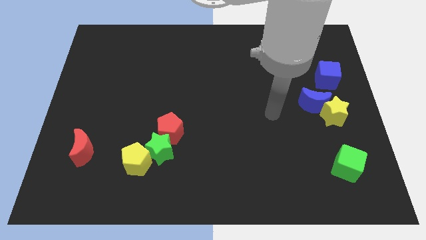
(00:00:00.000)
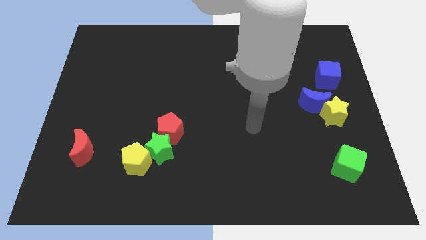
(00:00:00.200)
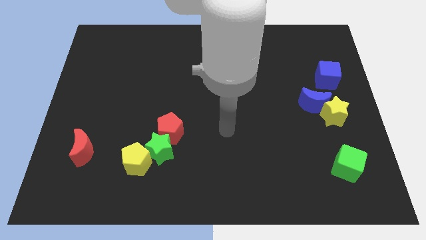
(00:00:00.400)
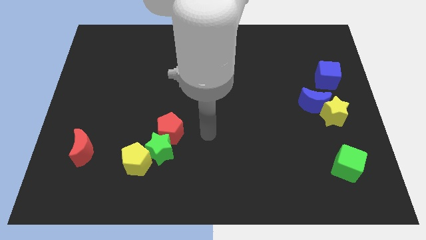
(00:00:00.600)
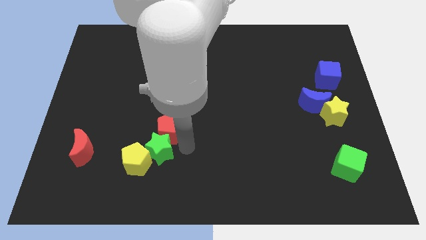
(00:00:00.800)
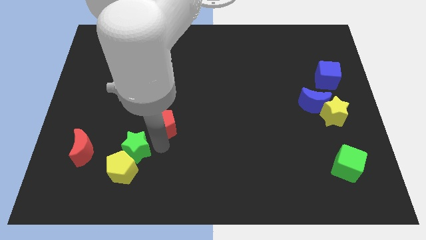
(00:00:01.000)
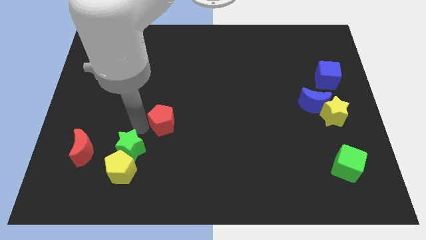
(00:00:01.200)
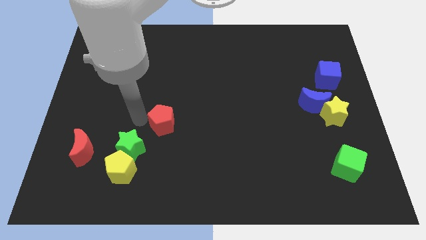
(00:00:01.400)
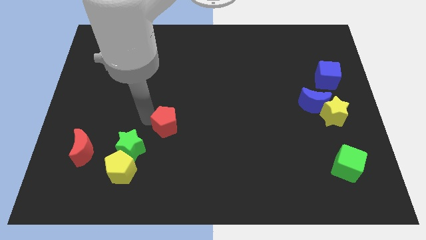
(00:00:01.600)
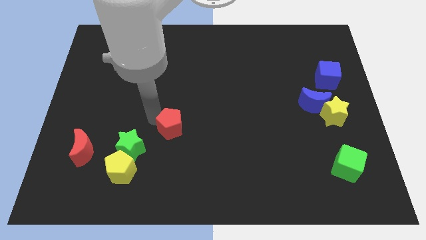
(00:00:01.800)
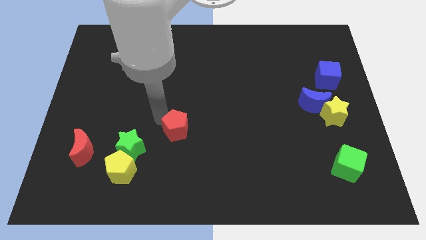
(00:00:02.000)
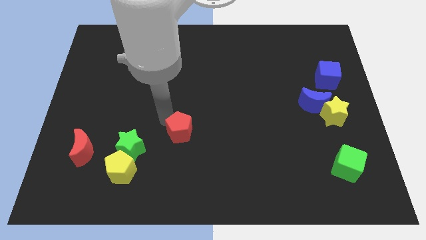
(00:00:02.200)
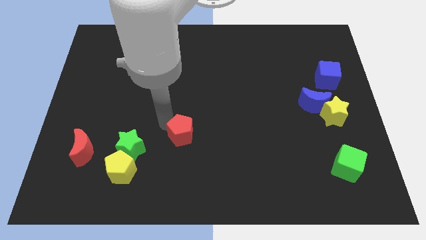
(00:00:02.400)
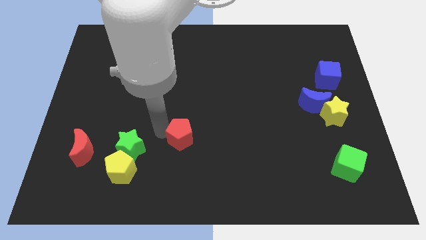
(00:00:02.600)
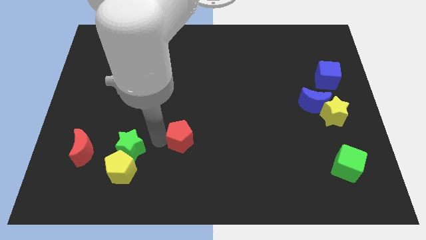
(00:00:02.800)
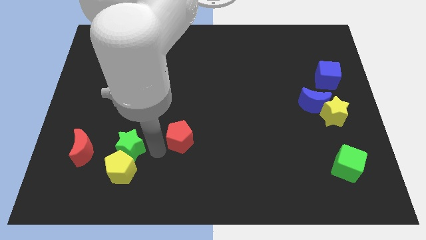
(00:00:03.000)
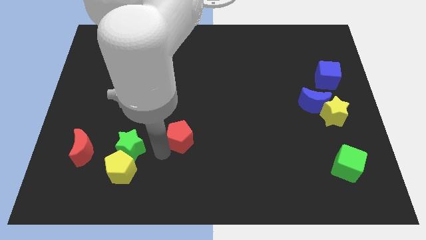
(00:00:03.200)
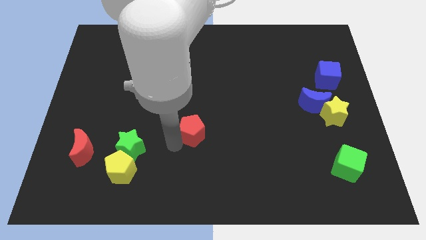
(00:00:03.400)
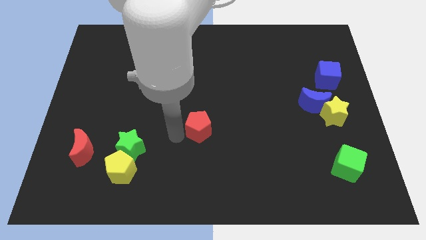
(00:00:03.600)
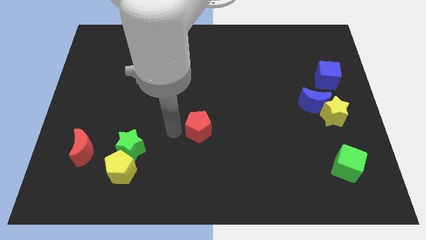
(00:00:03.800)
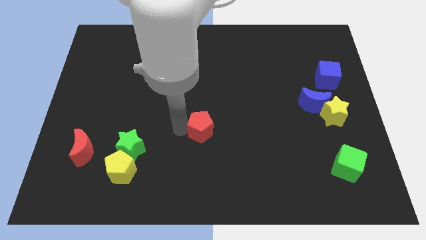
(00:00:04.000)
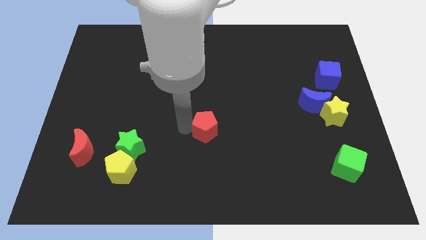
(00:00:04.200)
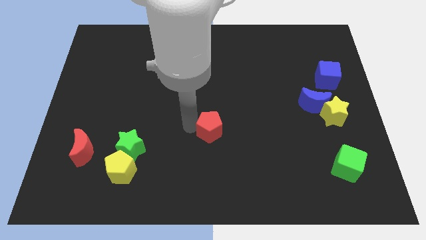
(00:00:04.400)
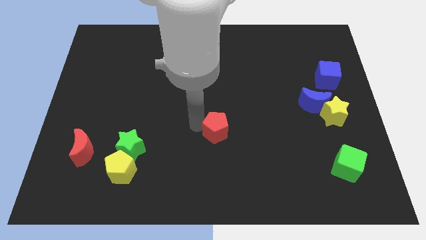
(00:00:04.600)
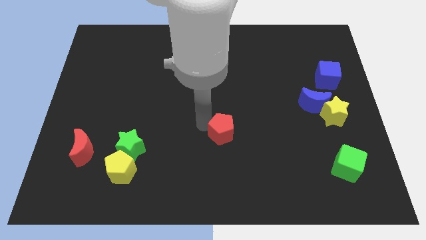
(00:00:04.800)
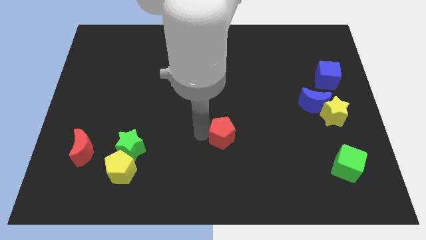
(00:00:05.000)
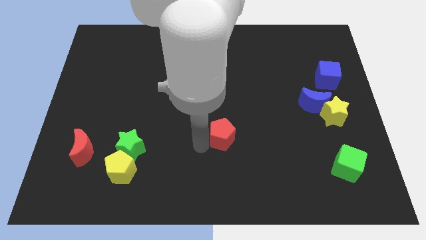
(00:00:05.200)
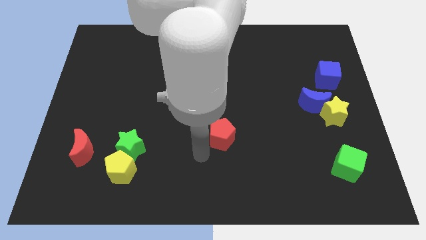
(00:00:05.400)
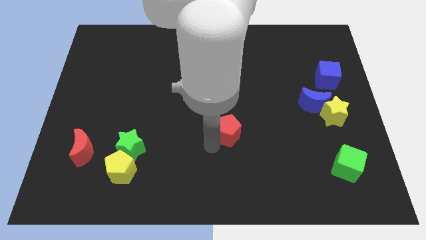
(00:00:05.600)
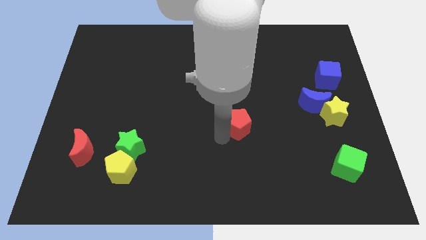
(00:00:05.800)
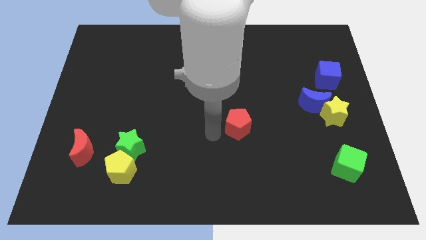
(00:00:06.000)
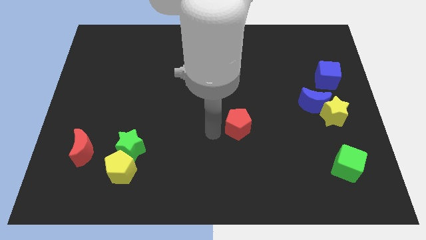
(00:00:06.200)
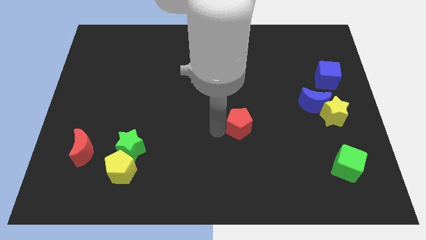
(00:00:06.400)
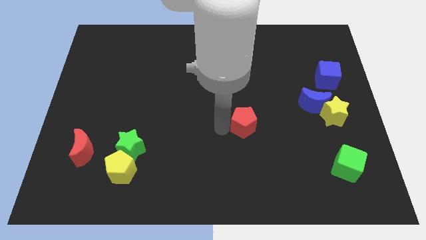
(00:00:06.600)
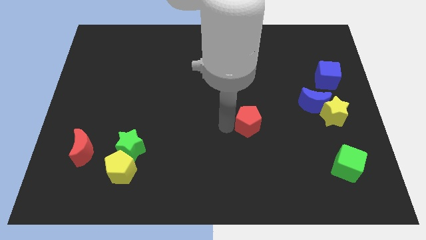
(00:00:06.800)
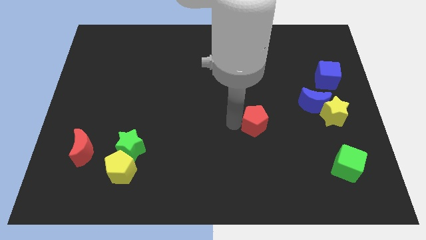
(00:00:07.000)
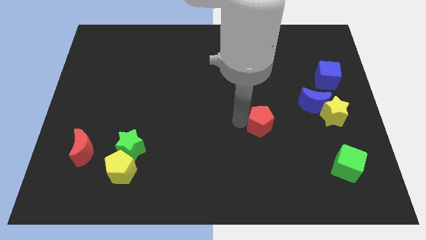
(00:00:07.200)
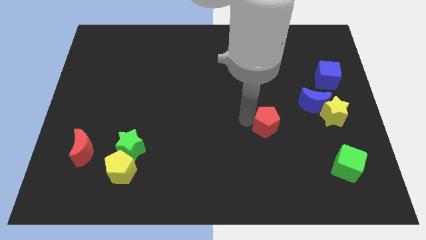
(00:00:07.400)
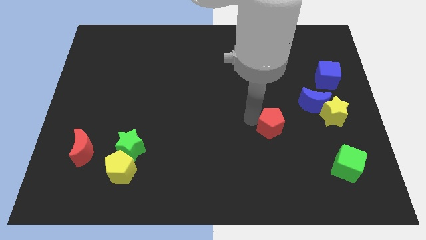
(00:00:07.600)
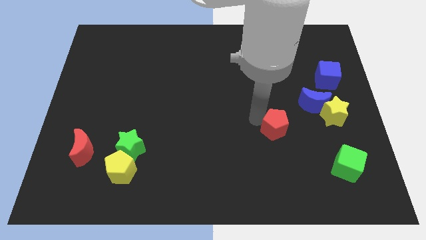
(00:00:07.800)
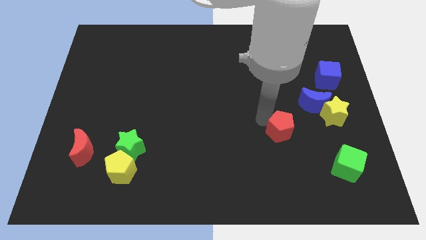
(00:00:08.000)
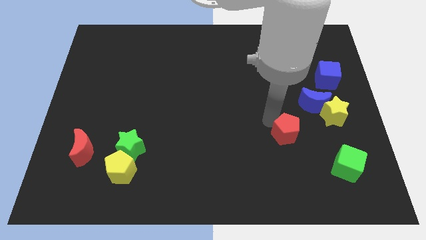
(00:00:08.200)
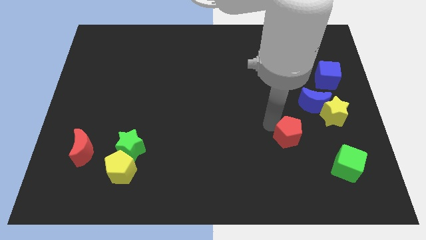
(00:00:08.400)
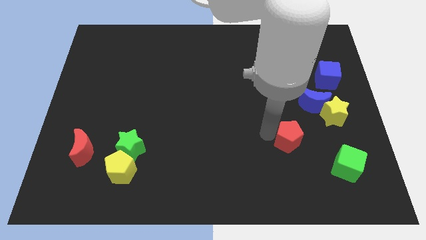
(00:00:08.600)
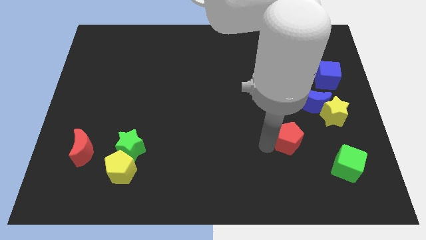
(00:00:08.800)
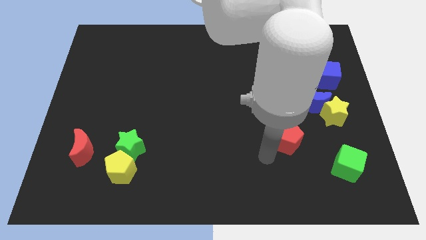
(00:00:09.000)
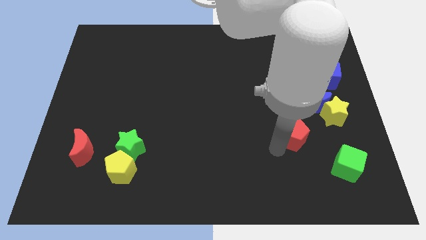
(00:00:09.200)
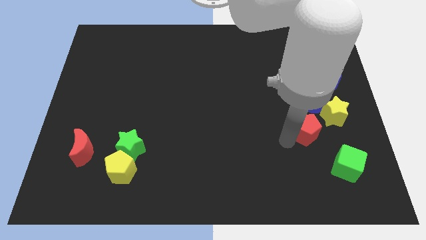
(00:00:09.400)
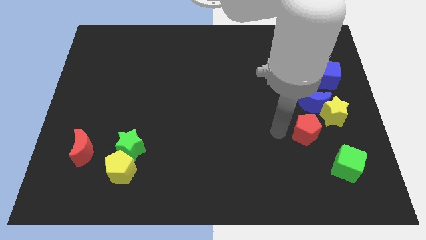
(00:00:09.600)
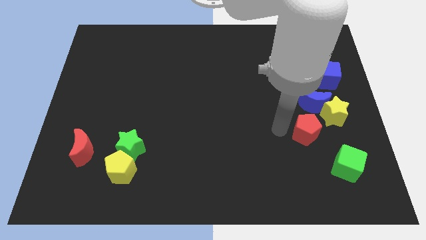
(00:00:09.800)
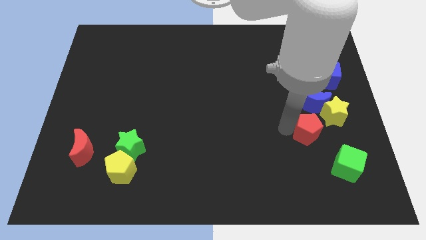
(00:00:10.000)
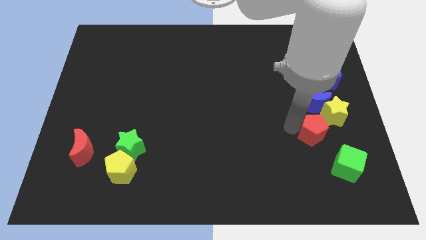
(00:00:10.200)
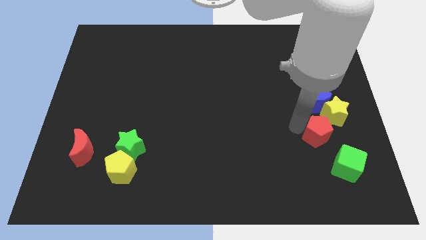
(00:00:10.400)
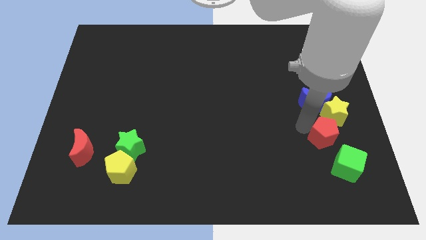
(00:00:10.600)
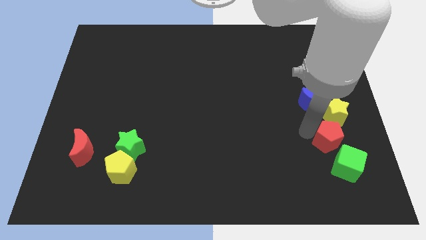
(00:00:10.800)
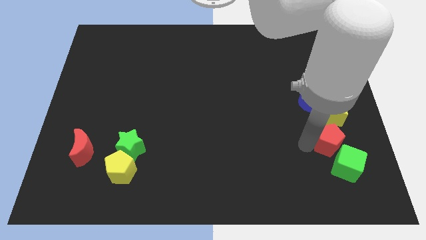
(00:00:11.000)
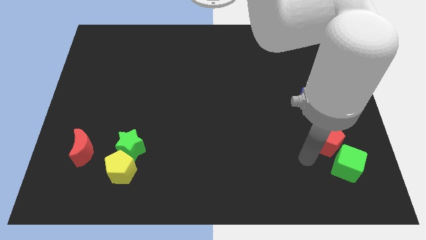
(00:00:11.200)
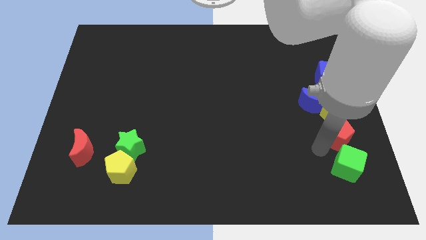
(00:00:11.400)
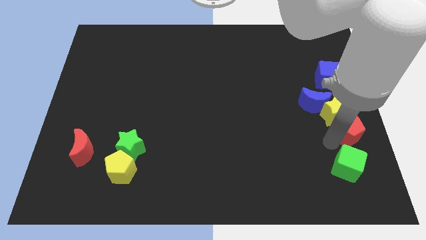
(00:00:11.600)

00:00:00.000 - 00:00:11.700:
move the red pentagon to the right side of the board

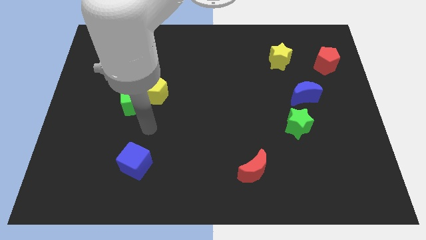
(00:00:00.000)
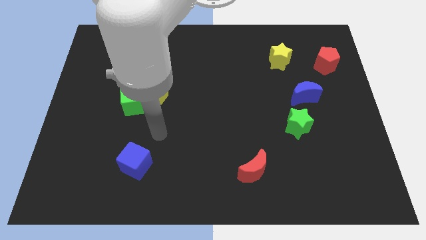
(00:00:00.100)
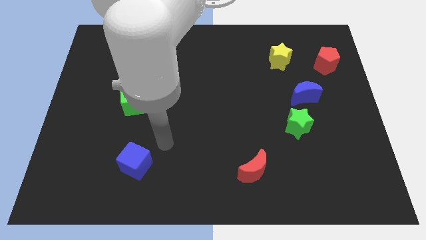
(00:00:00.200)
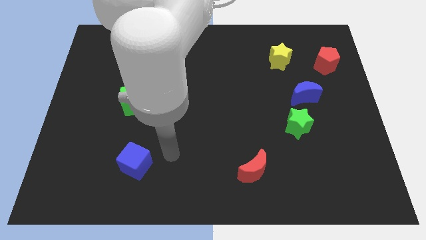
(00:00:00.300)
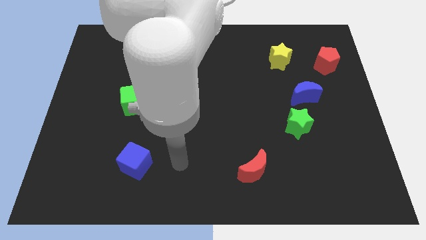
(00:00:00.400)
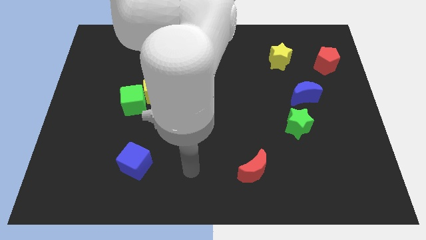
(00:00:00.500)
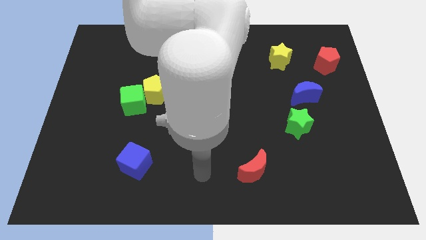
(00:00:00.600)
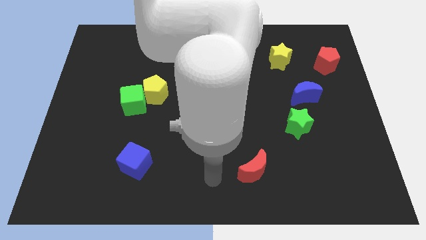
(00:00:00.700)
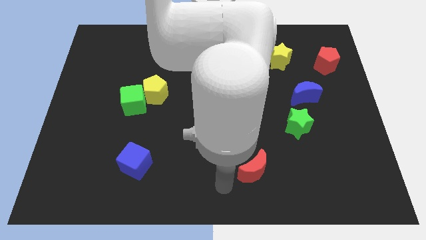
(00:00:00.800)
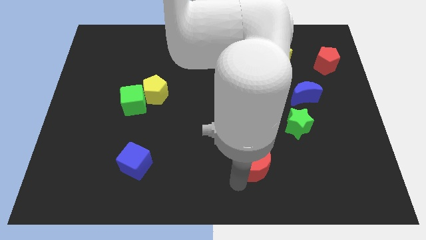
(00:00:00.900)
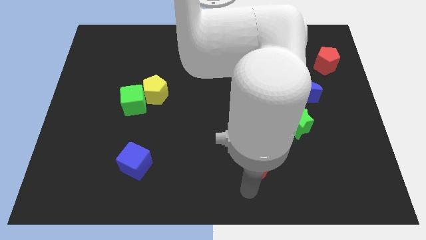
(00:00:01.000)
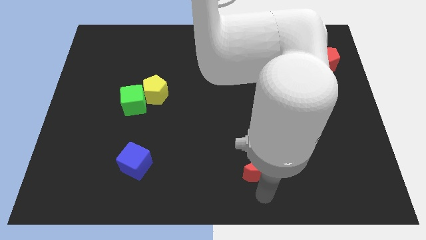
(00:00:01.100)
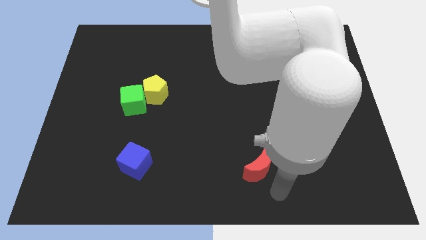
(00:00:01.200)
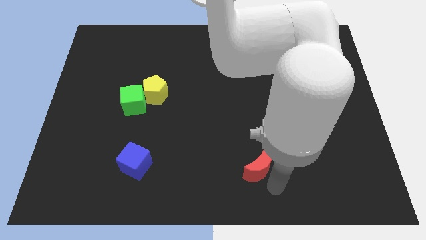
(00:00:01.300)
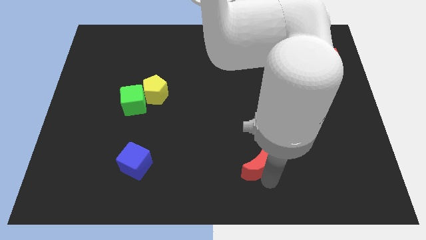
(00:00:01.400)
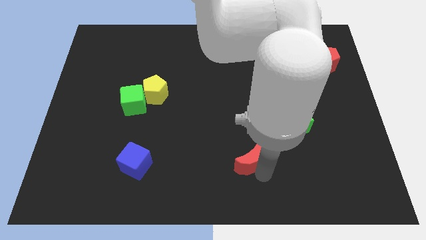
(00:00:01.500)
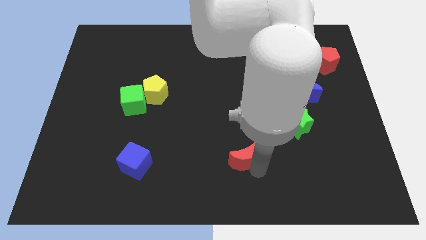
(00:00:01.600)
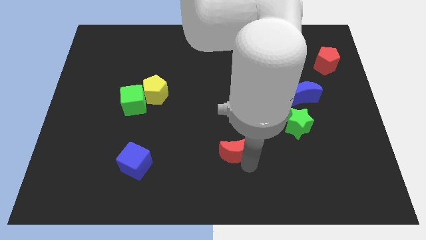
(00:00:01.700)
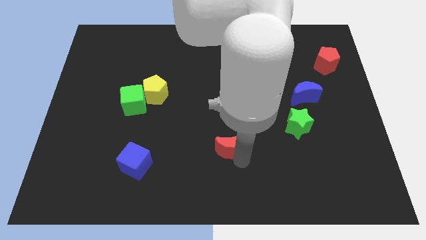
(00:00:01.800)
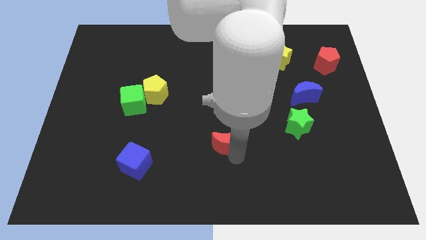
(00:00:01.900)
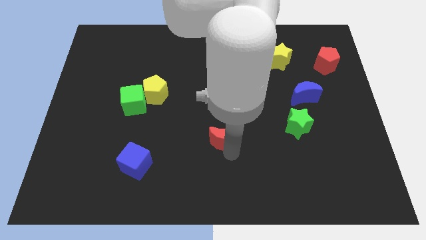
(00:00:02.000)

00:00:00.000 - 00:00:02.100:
slide the red moon to the center of the board
